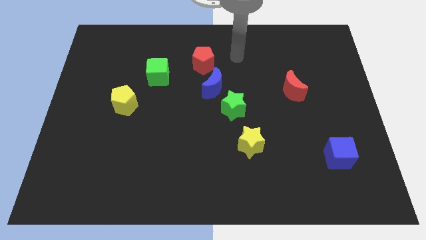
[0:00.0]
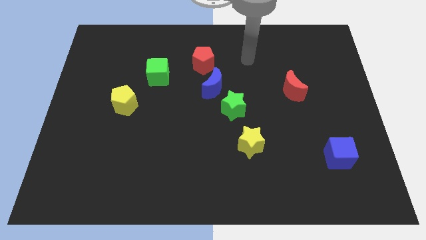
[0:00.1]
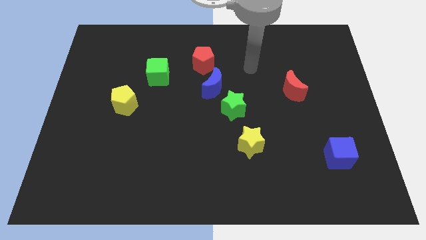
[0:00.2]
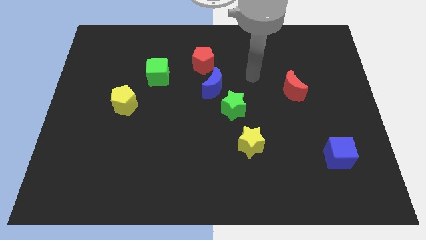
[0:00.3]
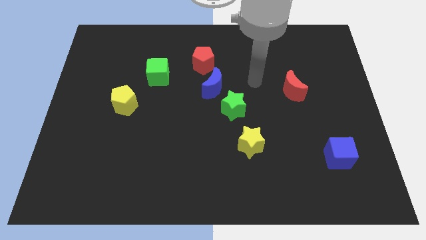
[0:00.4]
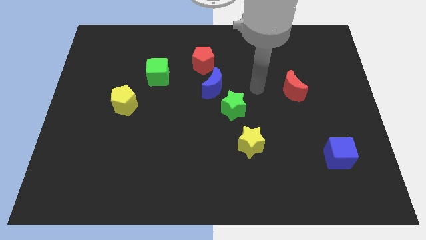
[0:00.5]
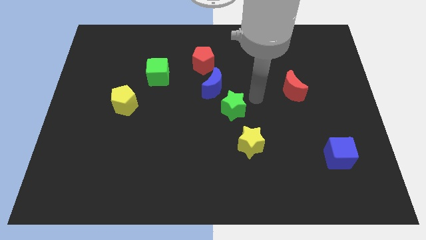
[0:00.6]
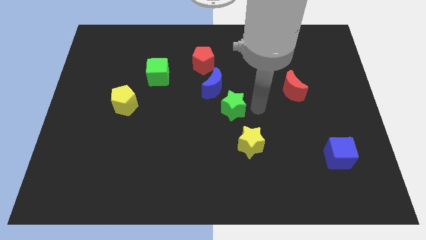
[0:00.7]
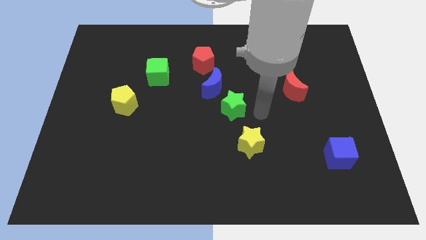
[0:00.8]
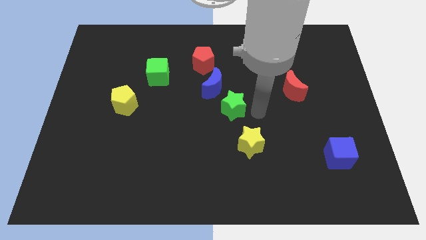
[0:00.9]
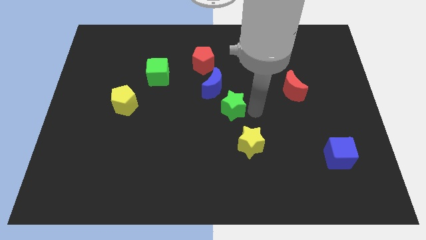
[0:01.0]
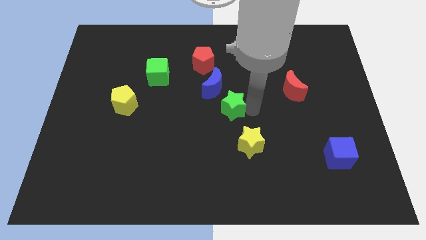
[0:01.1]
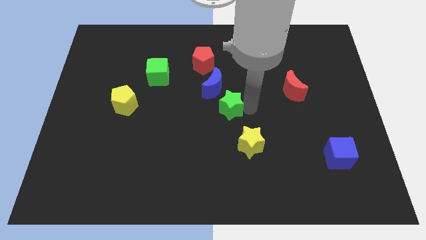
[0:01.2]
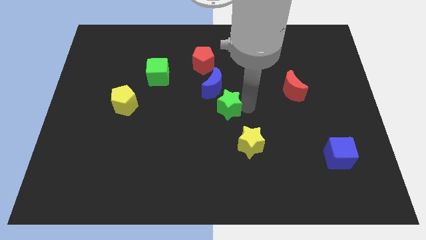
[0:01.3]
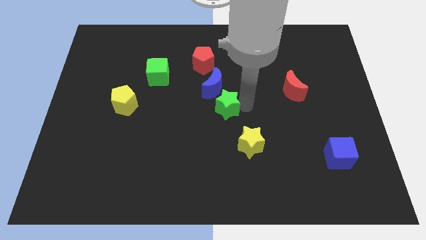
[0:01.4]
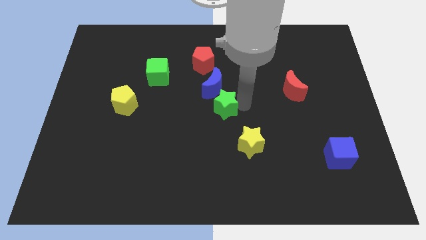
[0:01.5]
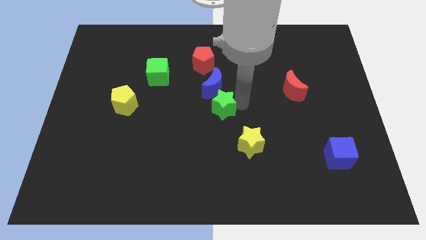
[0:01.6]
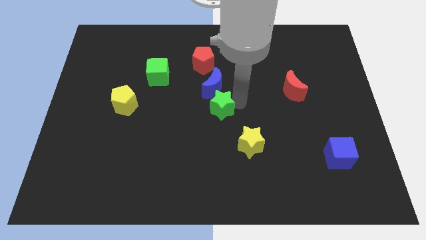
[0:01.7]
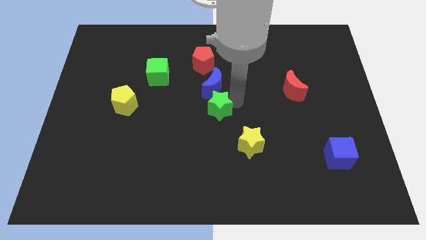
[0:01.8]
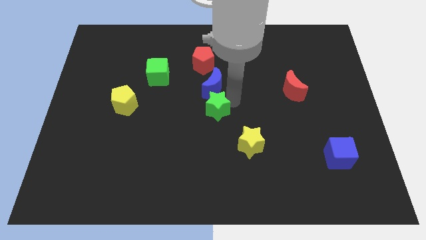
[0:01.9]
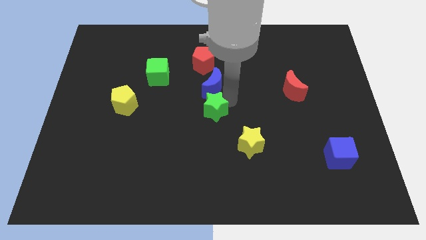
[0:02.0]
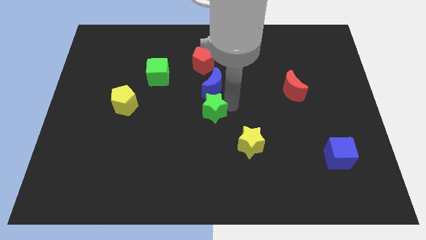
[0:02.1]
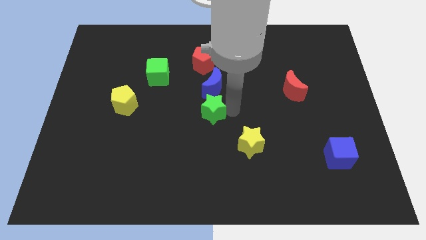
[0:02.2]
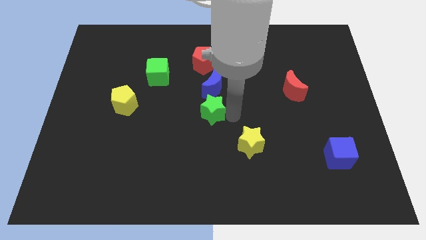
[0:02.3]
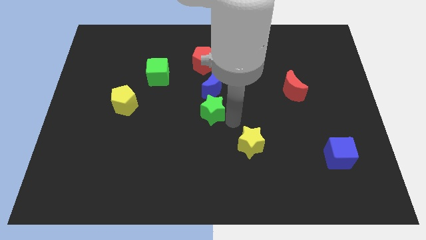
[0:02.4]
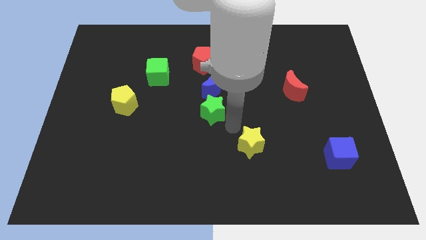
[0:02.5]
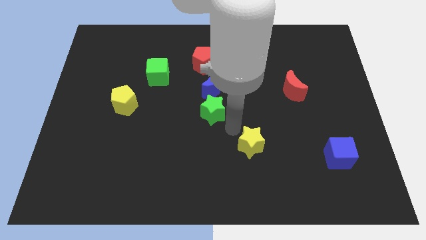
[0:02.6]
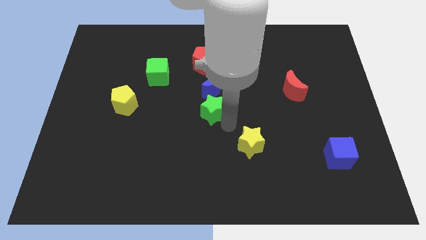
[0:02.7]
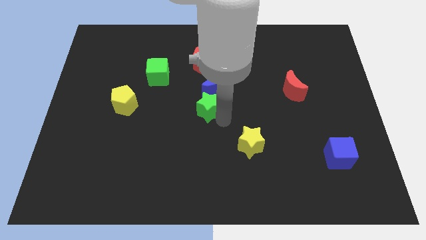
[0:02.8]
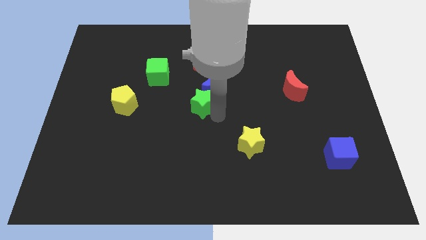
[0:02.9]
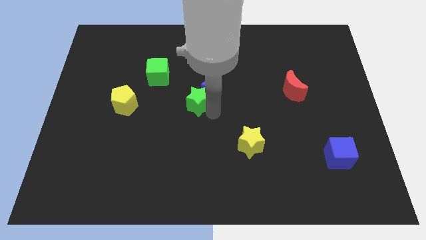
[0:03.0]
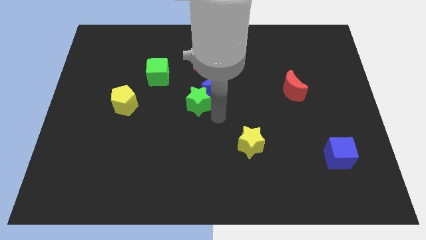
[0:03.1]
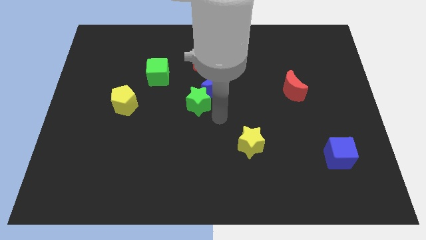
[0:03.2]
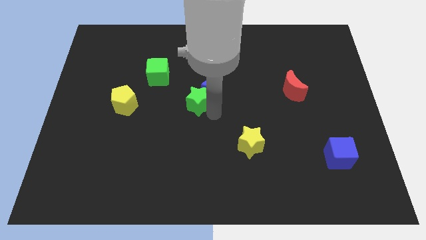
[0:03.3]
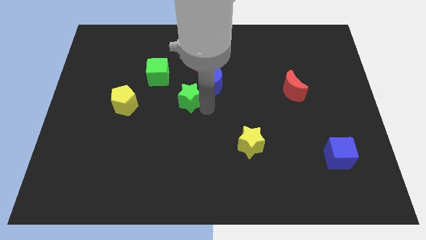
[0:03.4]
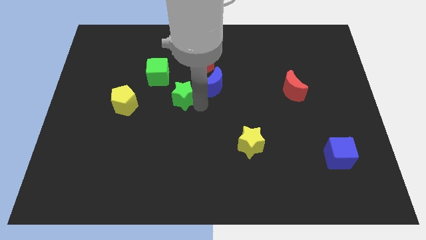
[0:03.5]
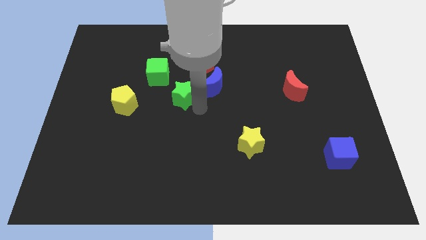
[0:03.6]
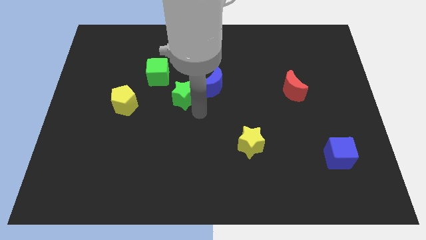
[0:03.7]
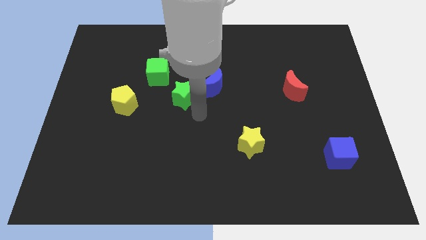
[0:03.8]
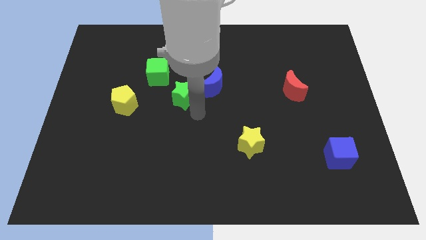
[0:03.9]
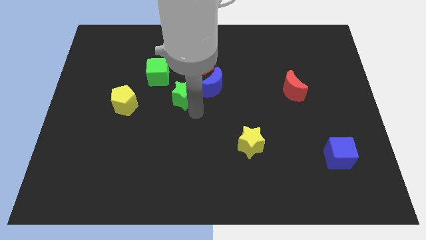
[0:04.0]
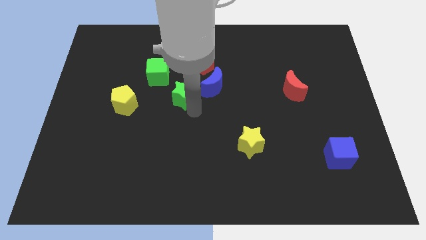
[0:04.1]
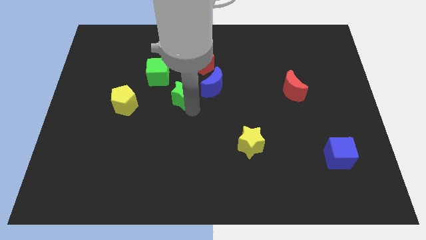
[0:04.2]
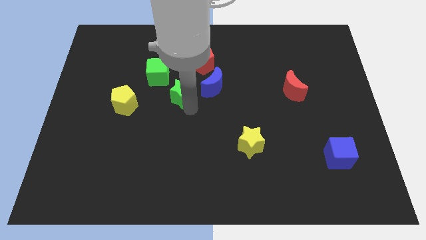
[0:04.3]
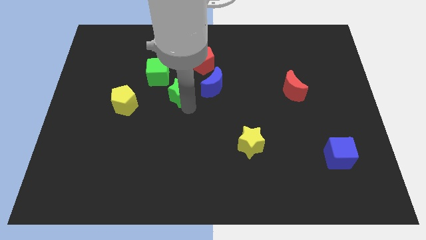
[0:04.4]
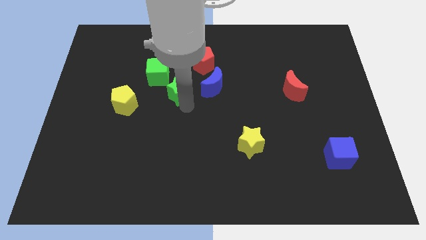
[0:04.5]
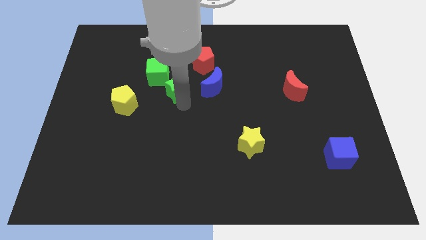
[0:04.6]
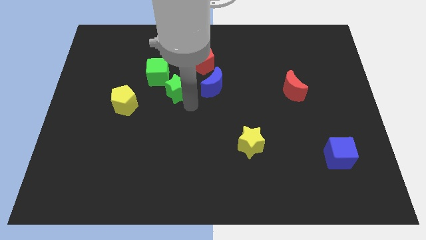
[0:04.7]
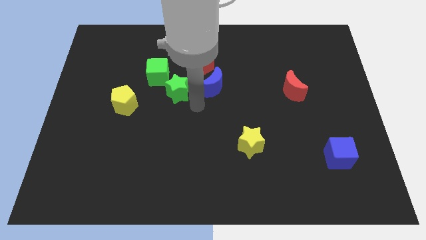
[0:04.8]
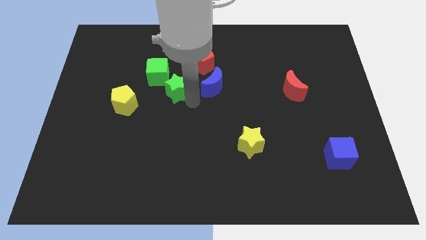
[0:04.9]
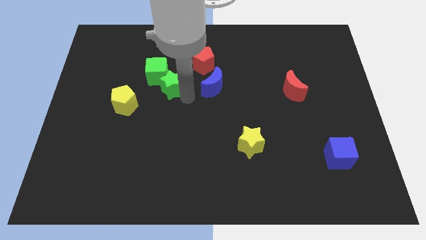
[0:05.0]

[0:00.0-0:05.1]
put the green star towards the green cube

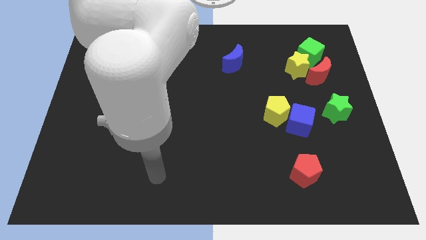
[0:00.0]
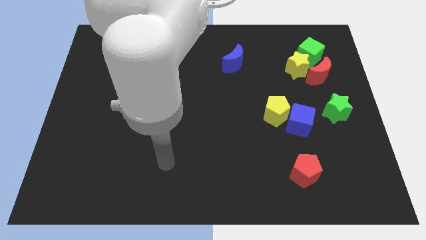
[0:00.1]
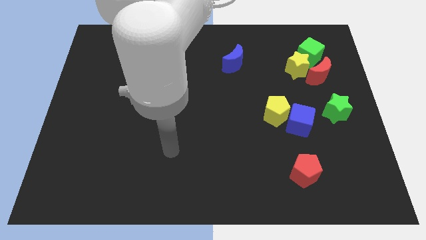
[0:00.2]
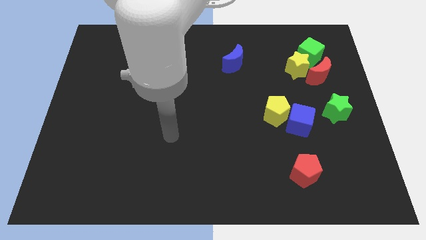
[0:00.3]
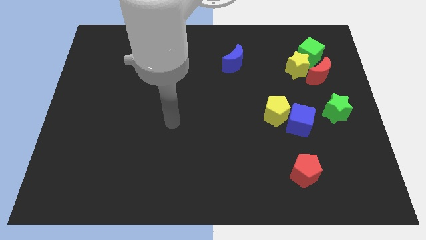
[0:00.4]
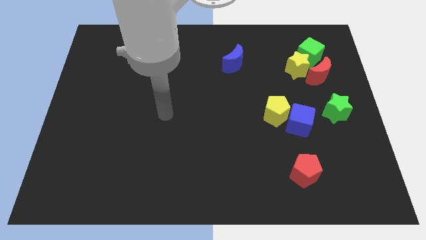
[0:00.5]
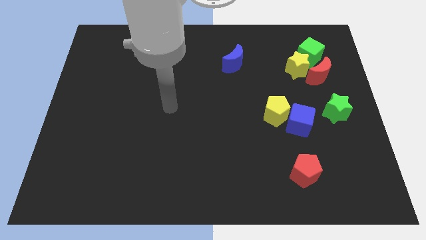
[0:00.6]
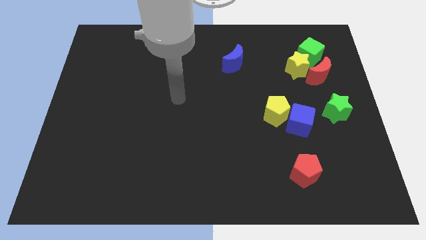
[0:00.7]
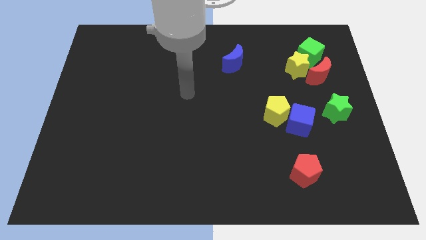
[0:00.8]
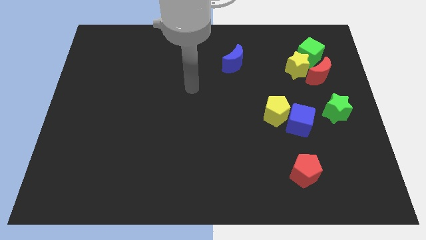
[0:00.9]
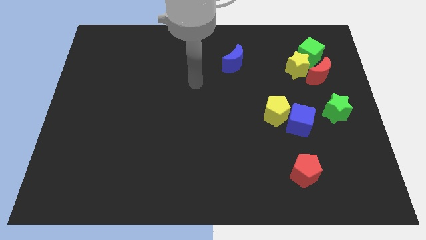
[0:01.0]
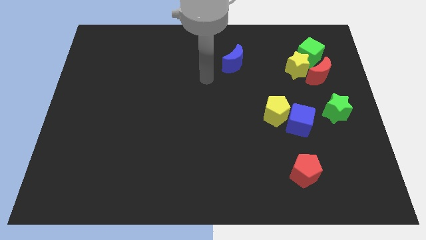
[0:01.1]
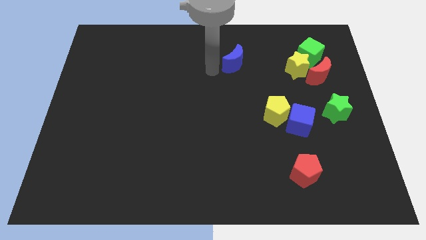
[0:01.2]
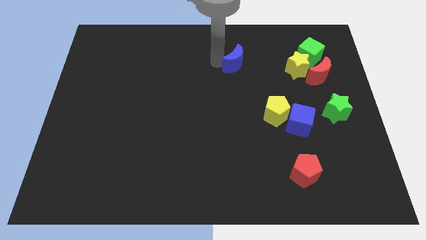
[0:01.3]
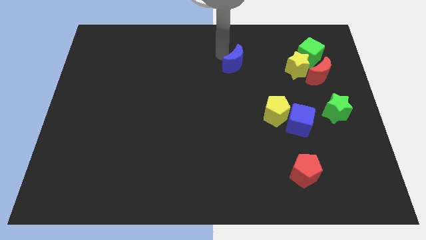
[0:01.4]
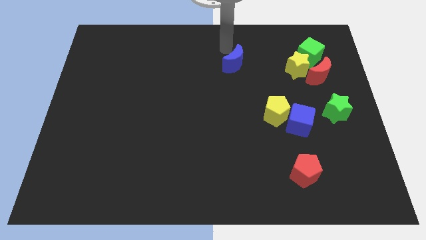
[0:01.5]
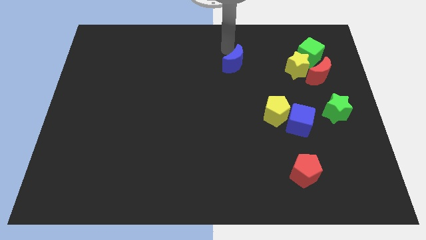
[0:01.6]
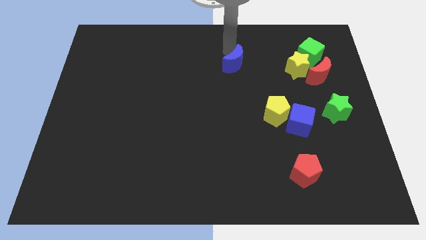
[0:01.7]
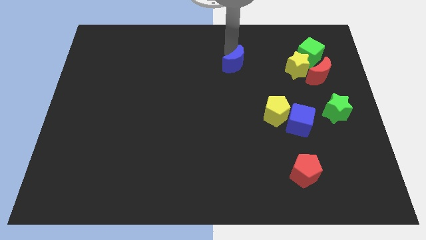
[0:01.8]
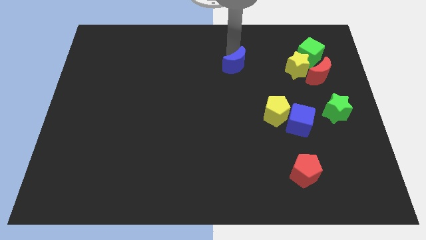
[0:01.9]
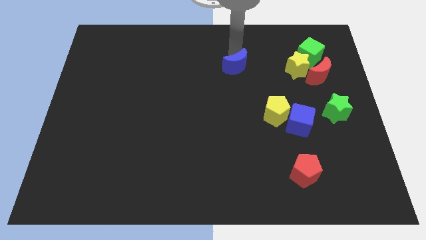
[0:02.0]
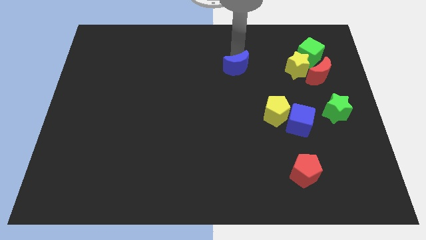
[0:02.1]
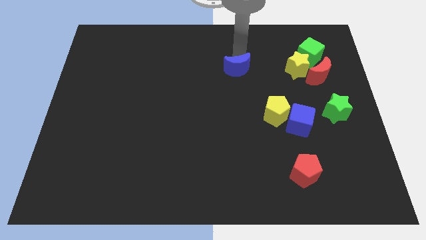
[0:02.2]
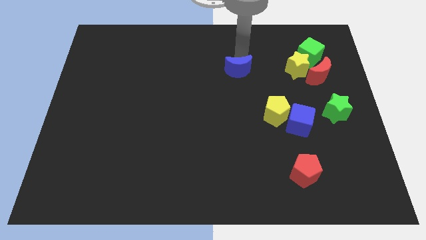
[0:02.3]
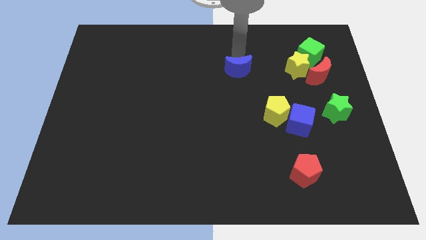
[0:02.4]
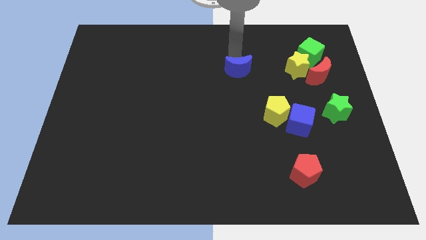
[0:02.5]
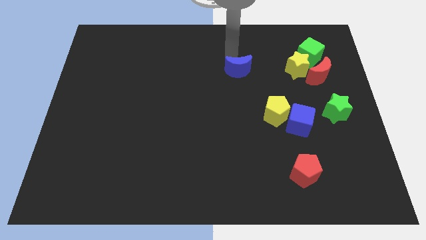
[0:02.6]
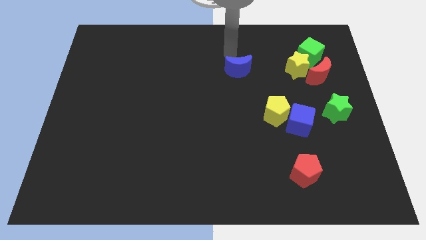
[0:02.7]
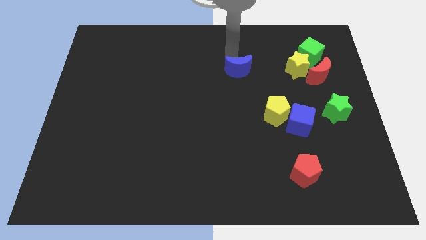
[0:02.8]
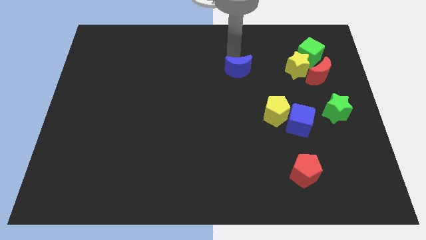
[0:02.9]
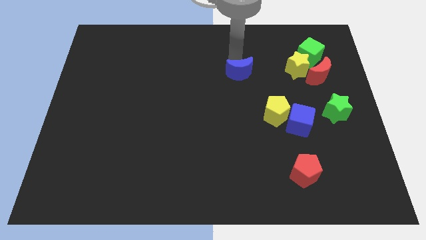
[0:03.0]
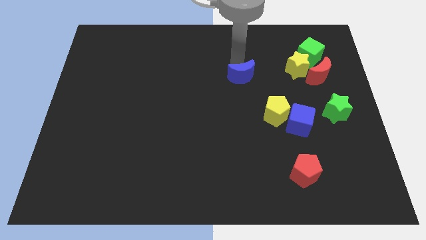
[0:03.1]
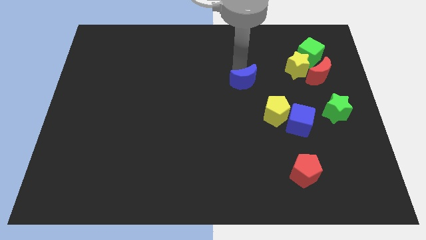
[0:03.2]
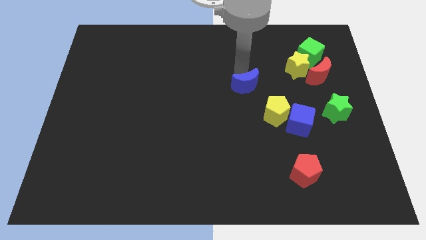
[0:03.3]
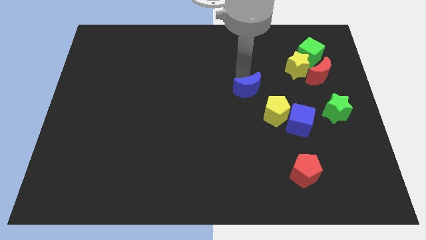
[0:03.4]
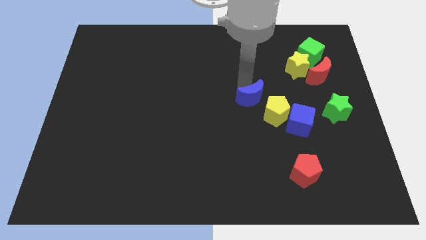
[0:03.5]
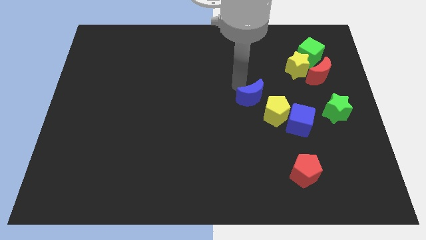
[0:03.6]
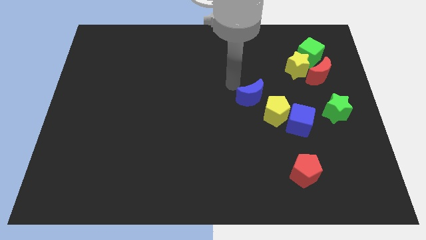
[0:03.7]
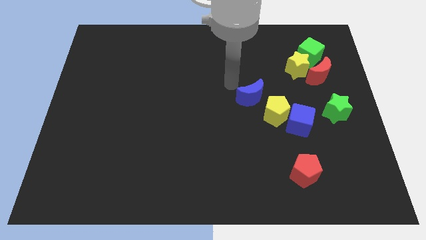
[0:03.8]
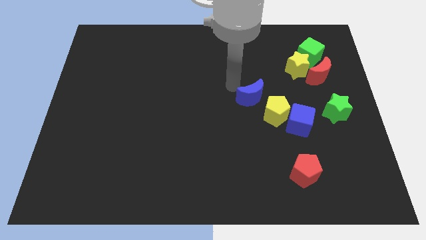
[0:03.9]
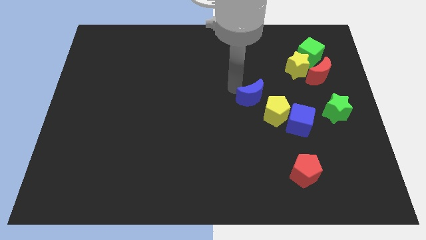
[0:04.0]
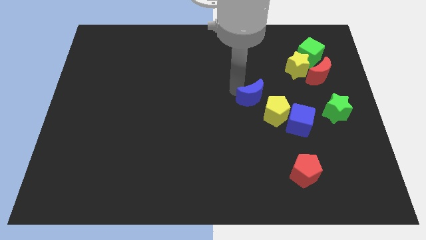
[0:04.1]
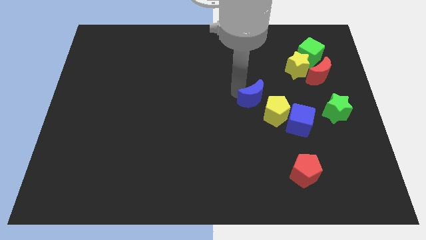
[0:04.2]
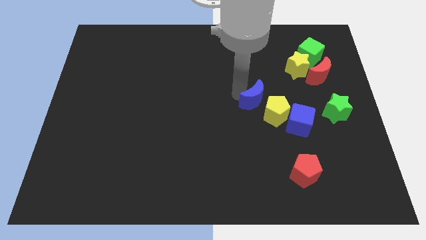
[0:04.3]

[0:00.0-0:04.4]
push the blue moon close to the yellow pentagon
